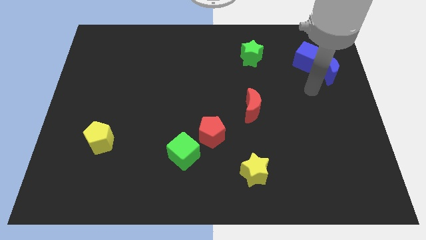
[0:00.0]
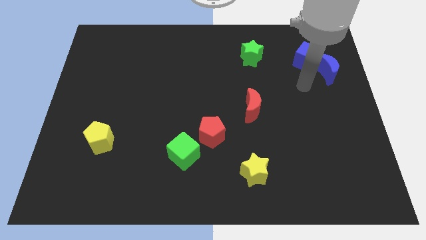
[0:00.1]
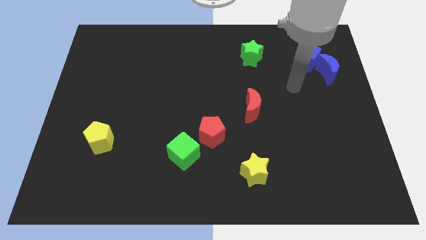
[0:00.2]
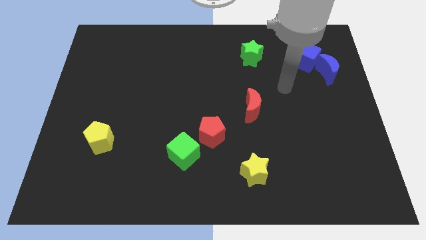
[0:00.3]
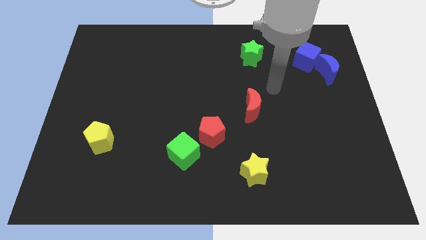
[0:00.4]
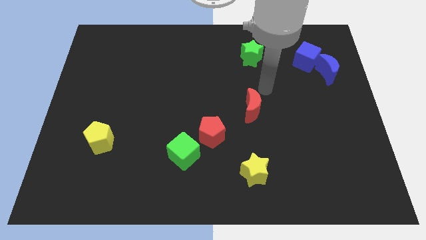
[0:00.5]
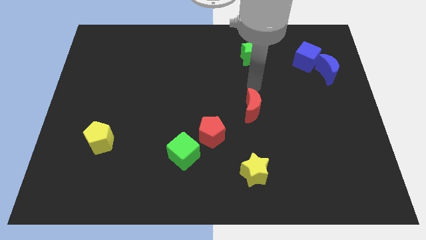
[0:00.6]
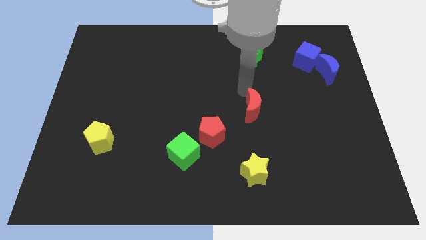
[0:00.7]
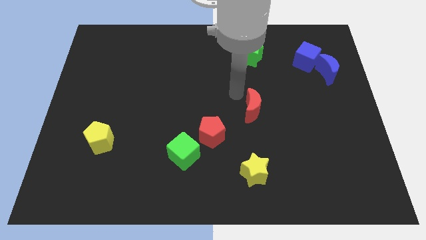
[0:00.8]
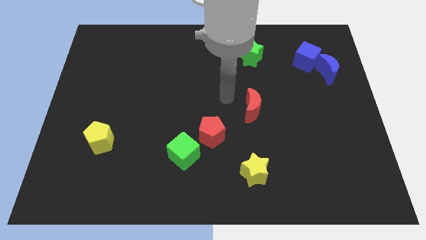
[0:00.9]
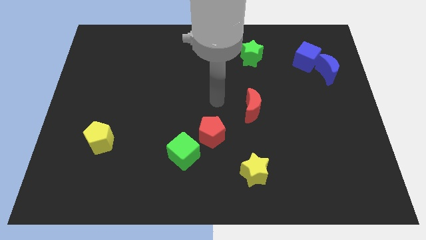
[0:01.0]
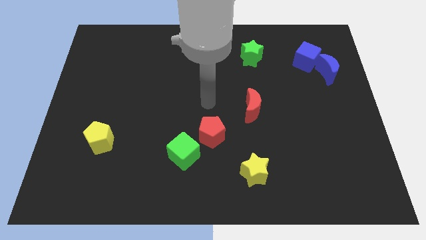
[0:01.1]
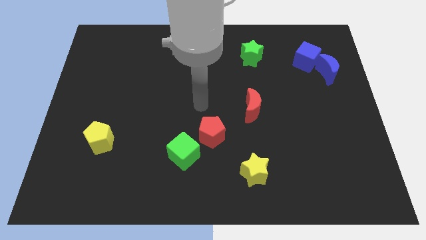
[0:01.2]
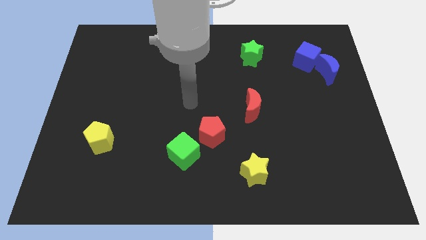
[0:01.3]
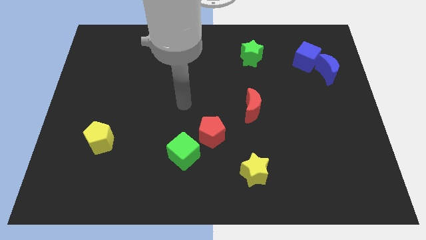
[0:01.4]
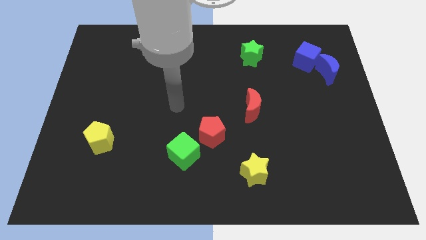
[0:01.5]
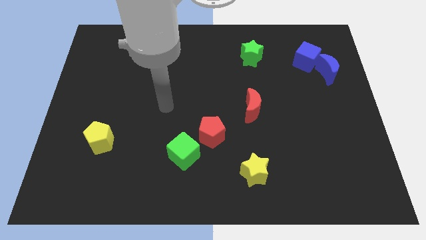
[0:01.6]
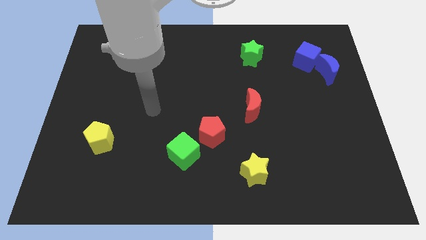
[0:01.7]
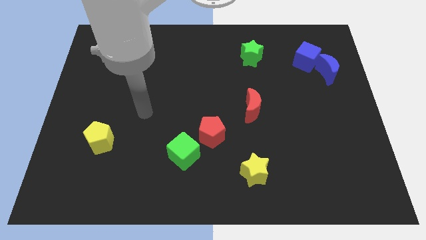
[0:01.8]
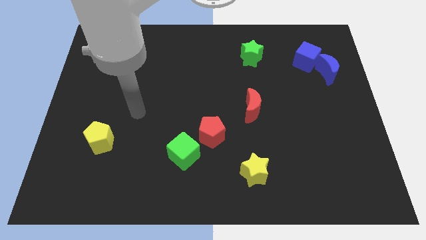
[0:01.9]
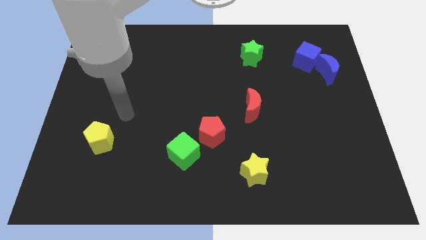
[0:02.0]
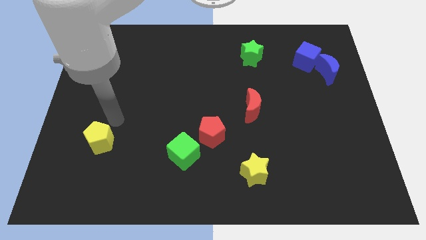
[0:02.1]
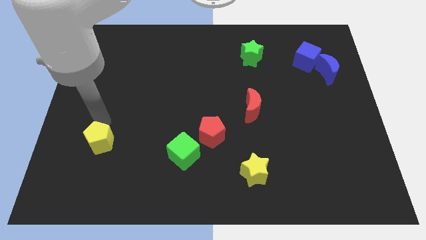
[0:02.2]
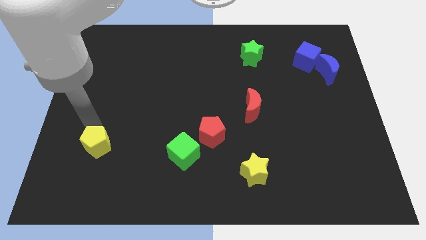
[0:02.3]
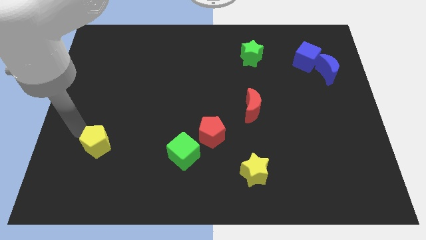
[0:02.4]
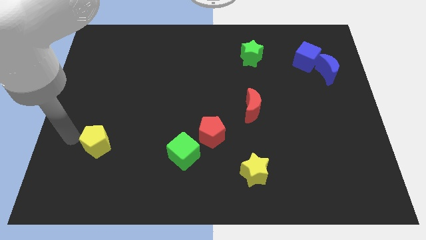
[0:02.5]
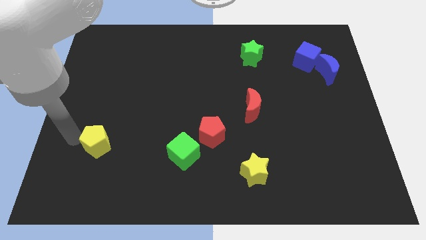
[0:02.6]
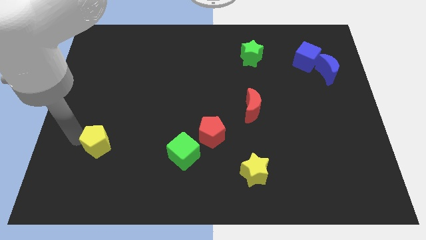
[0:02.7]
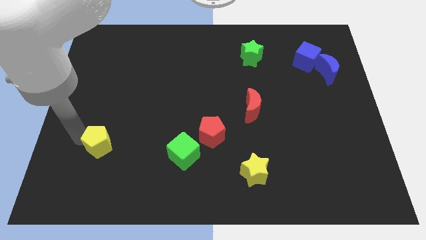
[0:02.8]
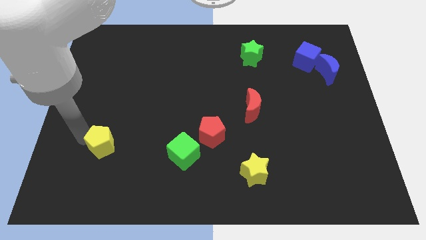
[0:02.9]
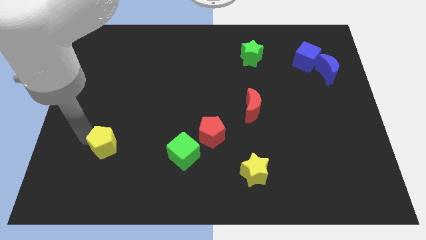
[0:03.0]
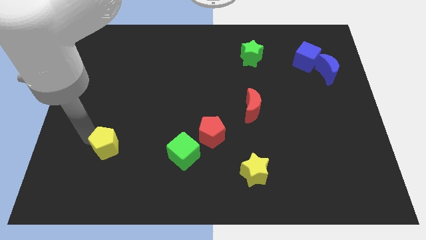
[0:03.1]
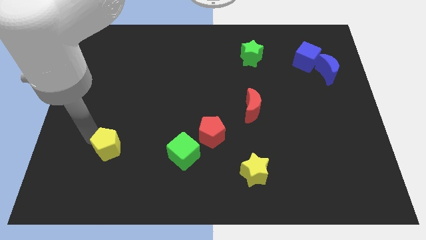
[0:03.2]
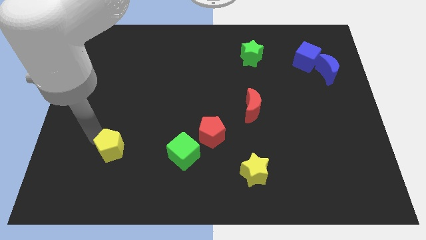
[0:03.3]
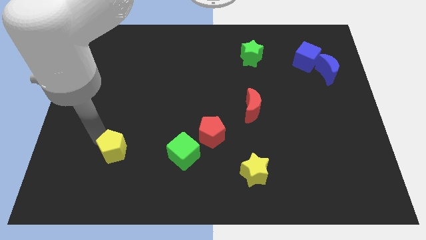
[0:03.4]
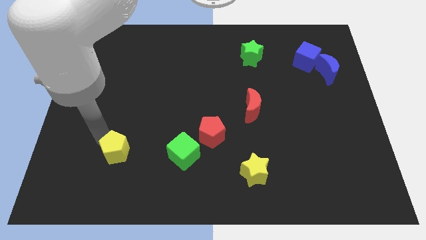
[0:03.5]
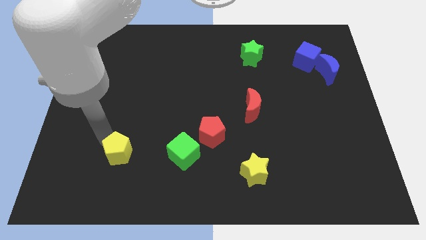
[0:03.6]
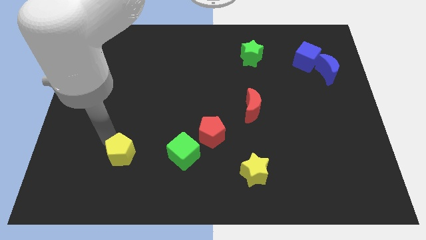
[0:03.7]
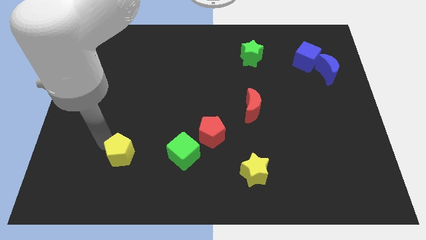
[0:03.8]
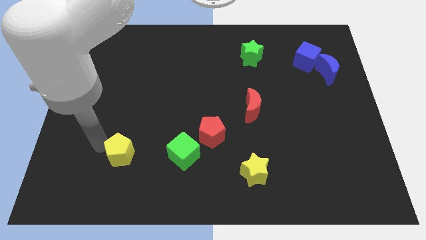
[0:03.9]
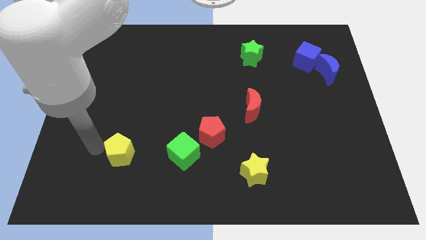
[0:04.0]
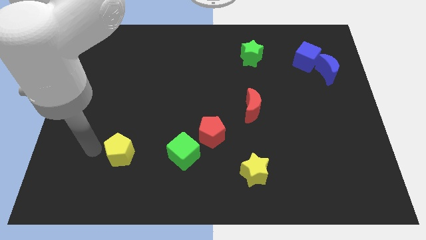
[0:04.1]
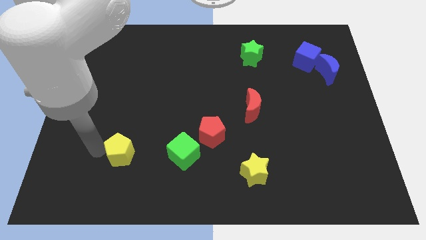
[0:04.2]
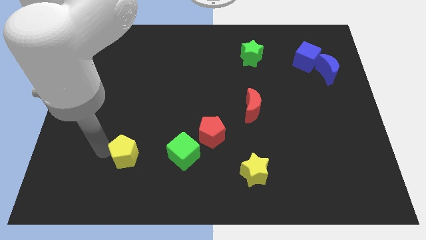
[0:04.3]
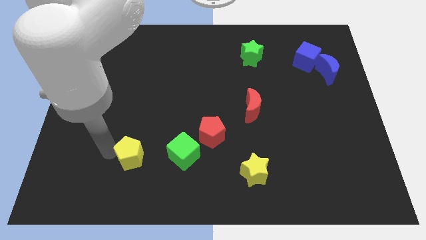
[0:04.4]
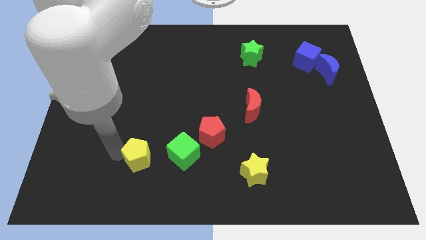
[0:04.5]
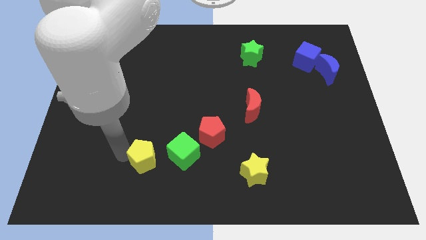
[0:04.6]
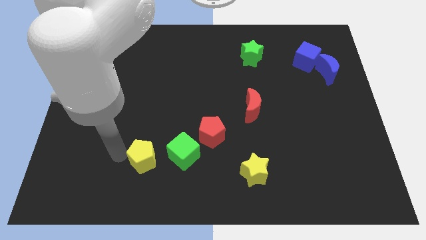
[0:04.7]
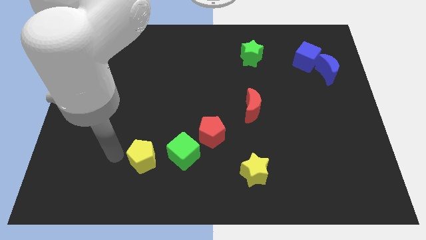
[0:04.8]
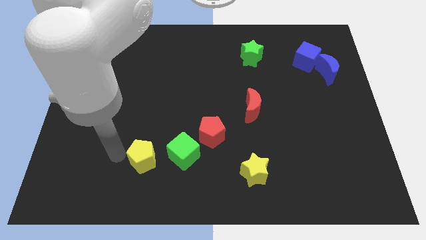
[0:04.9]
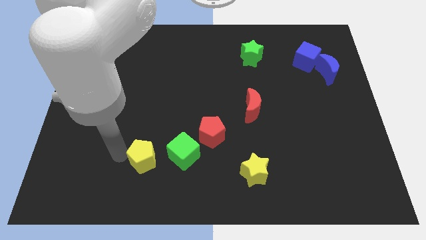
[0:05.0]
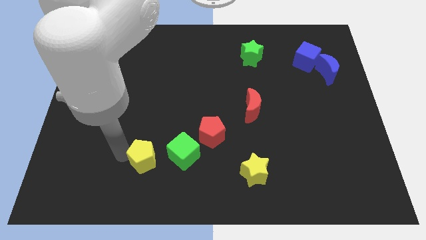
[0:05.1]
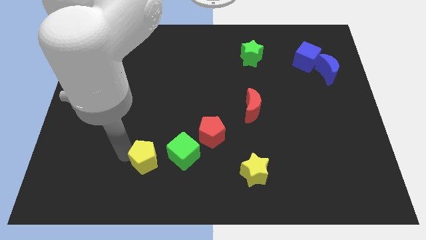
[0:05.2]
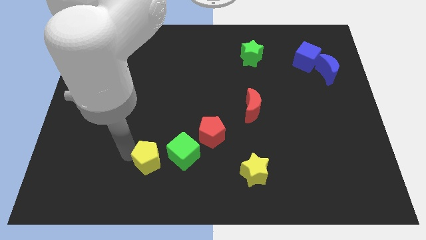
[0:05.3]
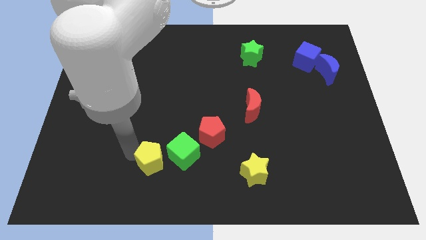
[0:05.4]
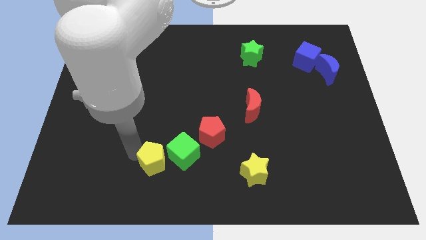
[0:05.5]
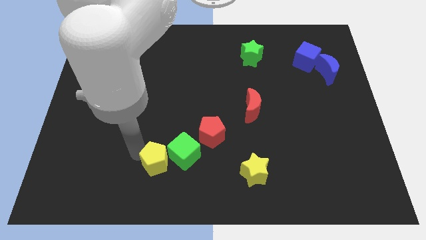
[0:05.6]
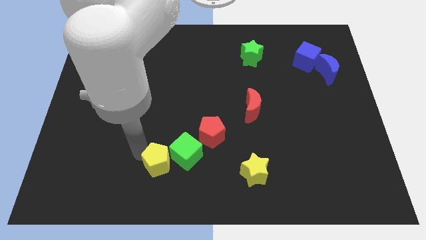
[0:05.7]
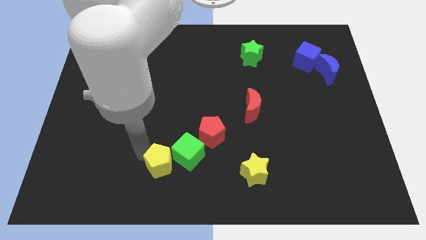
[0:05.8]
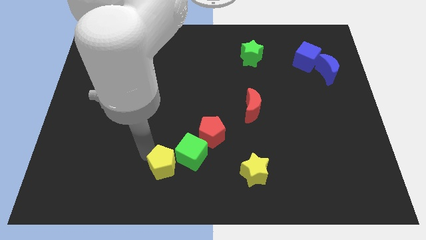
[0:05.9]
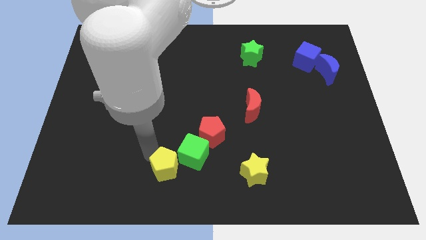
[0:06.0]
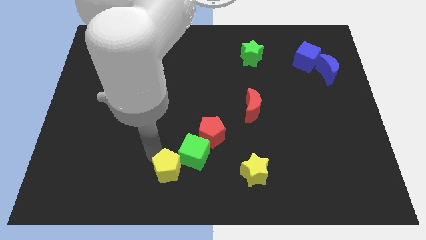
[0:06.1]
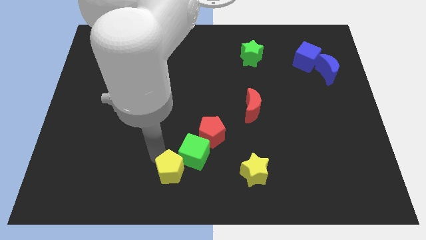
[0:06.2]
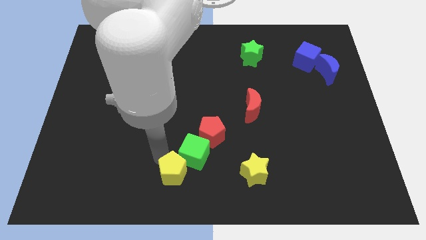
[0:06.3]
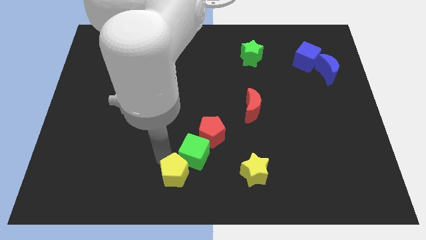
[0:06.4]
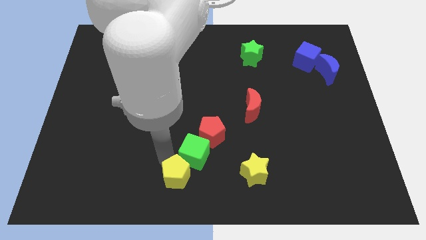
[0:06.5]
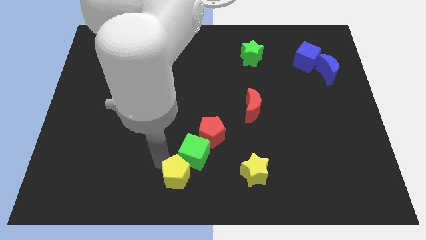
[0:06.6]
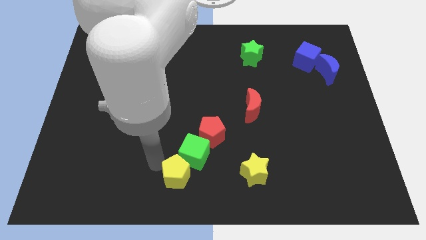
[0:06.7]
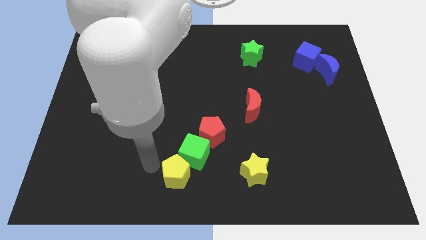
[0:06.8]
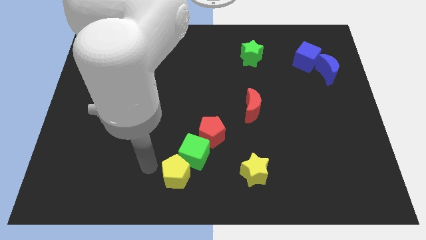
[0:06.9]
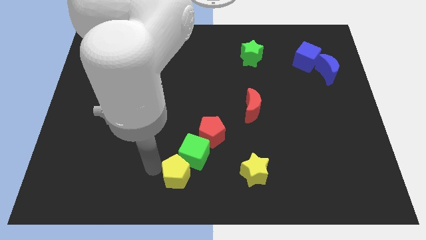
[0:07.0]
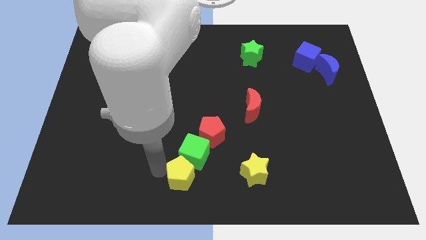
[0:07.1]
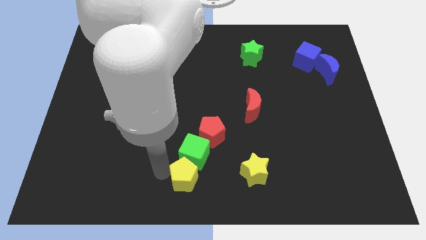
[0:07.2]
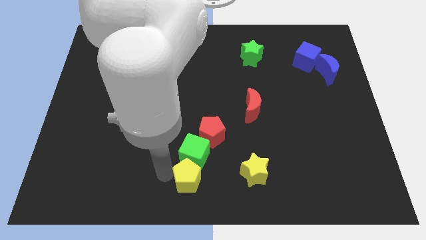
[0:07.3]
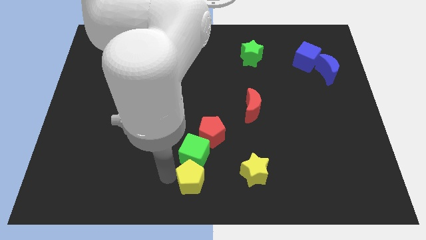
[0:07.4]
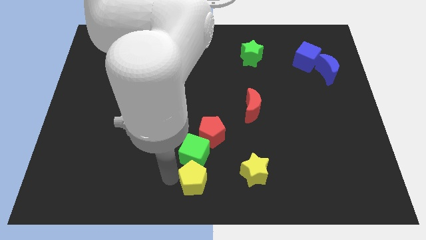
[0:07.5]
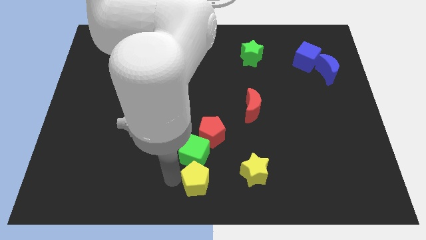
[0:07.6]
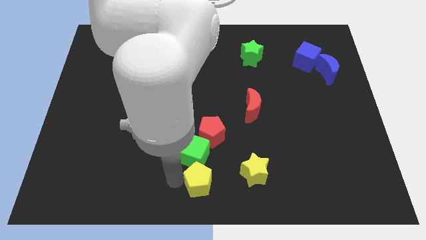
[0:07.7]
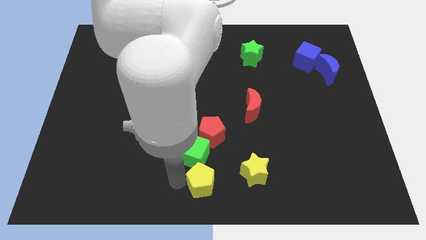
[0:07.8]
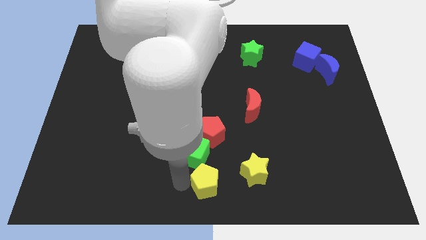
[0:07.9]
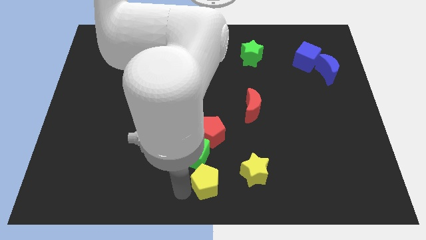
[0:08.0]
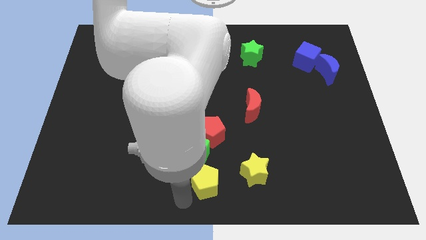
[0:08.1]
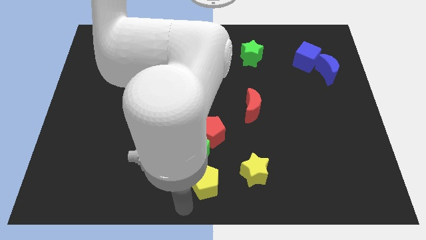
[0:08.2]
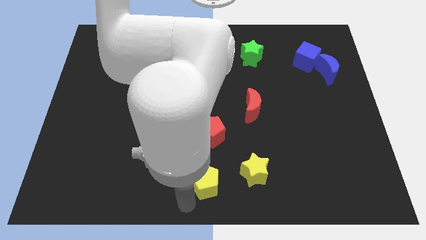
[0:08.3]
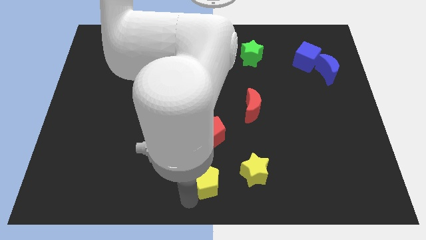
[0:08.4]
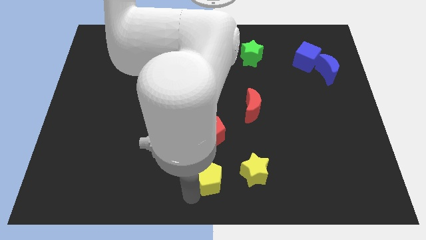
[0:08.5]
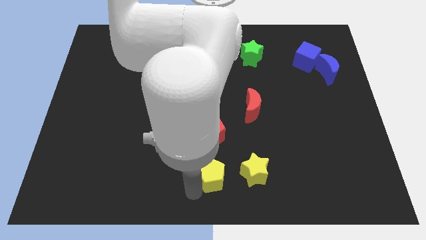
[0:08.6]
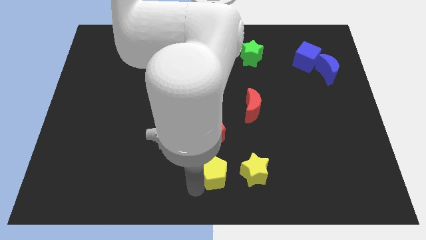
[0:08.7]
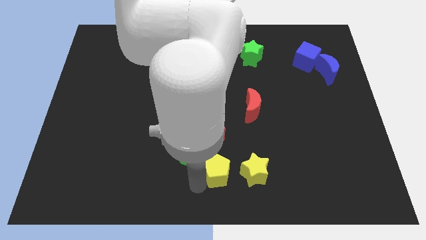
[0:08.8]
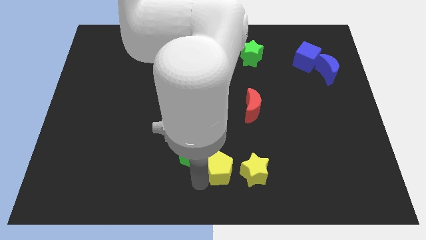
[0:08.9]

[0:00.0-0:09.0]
slide the yellow pentagon diagonally down and to the right of the red pentagon
